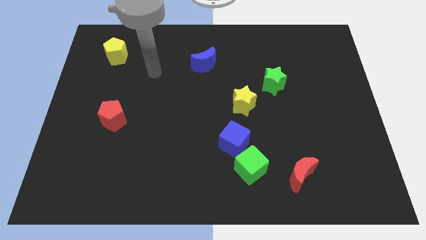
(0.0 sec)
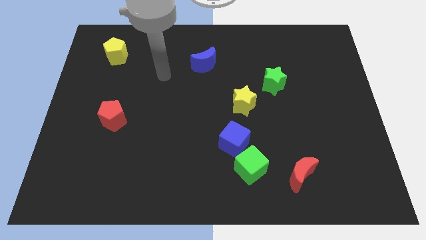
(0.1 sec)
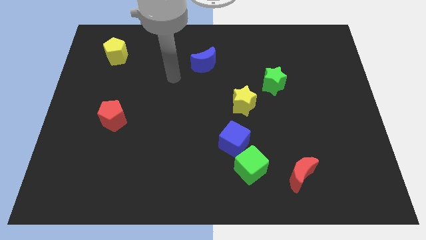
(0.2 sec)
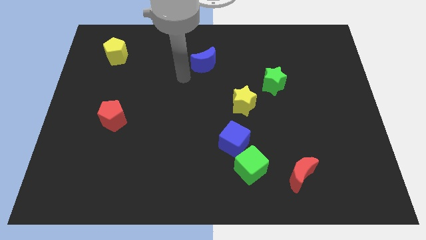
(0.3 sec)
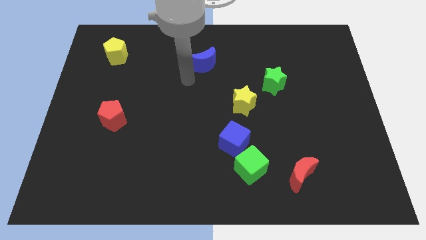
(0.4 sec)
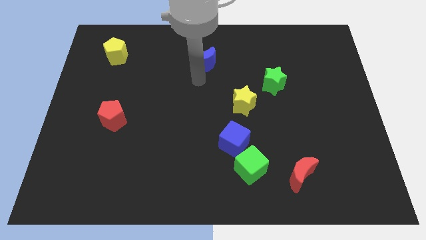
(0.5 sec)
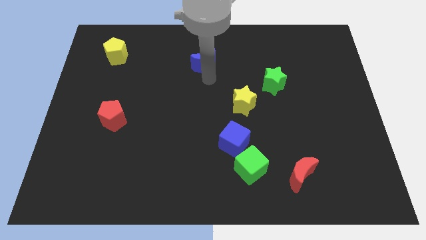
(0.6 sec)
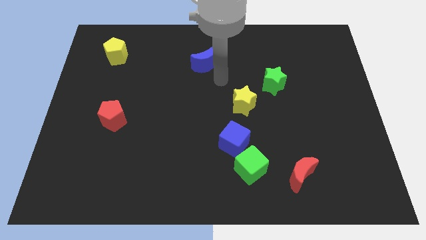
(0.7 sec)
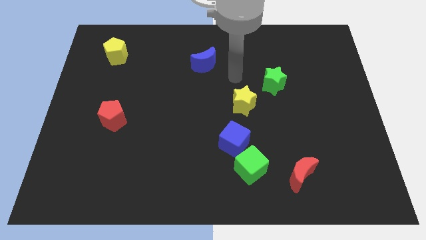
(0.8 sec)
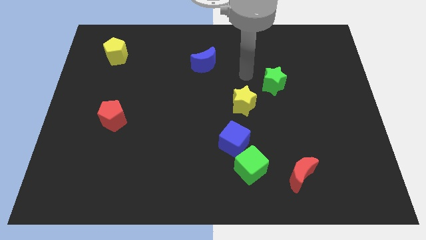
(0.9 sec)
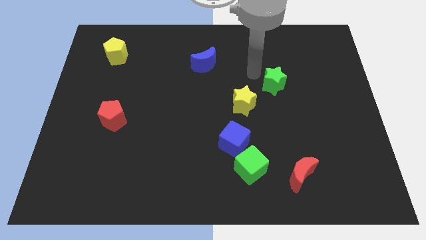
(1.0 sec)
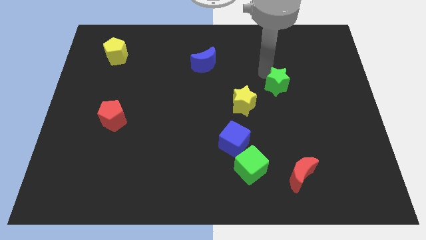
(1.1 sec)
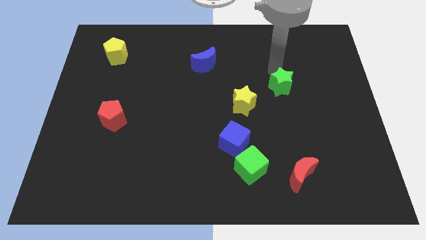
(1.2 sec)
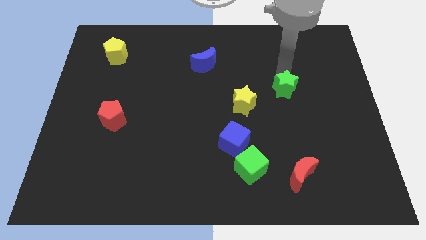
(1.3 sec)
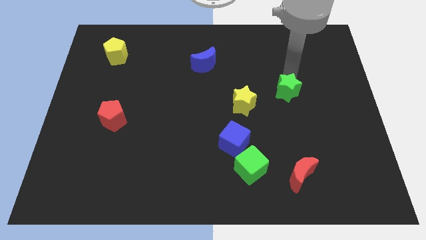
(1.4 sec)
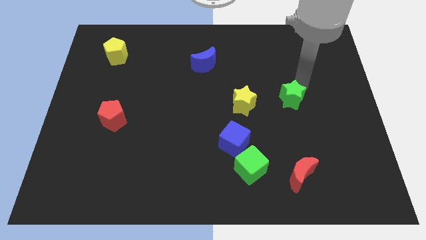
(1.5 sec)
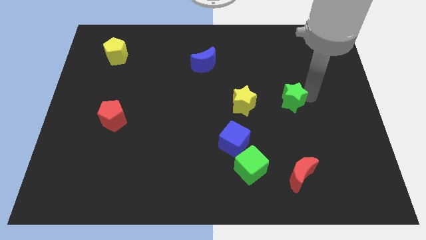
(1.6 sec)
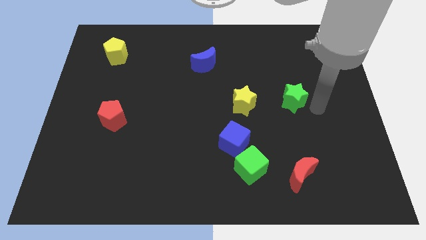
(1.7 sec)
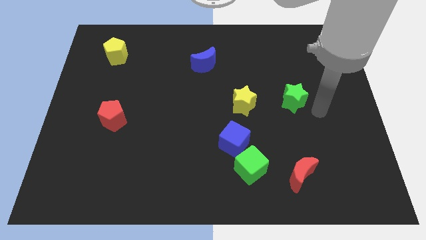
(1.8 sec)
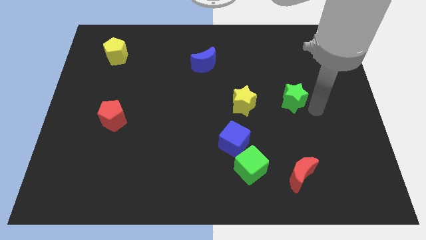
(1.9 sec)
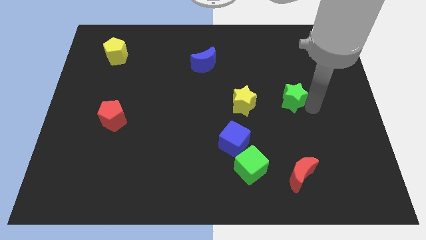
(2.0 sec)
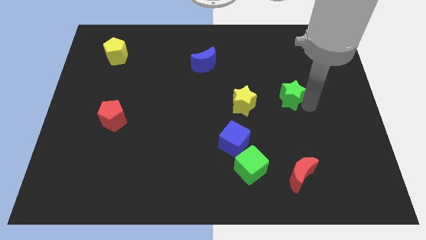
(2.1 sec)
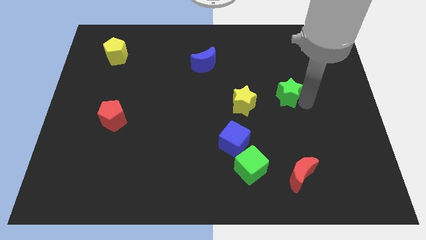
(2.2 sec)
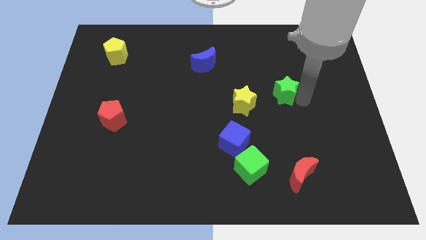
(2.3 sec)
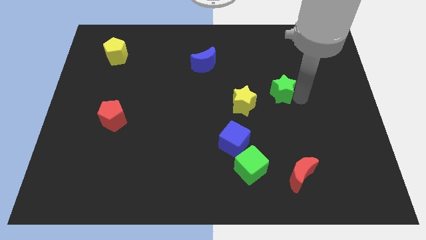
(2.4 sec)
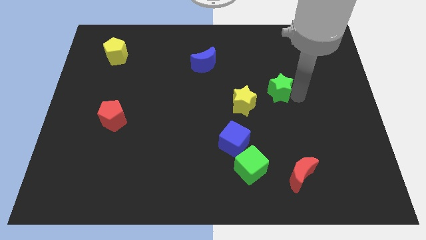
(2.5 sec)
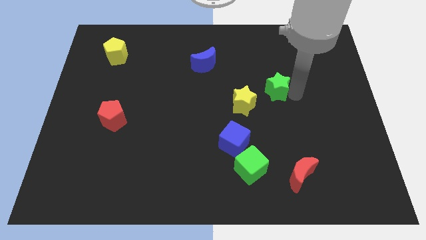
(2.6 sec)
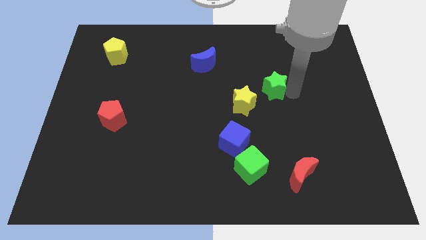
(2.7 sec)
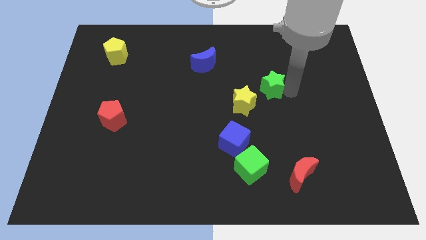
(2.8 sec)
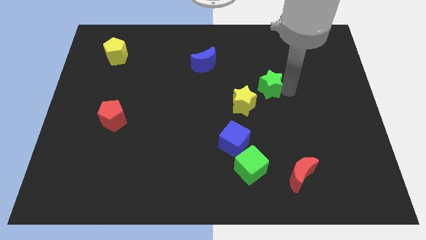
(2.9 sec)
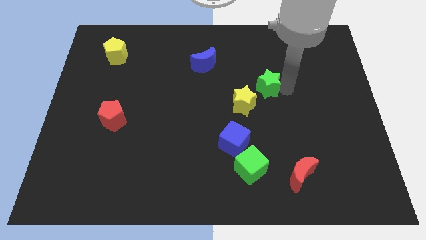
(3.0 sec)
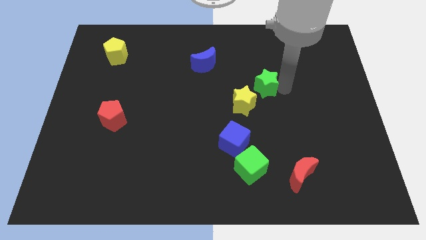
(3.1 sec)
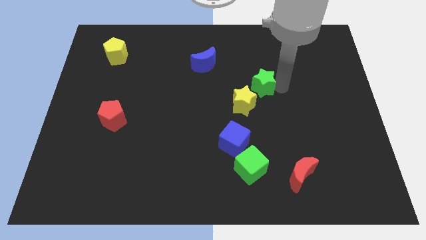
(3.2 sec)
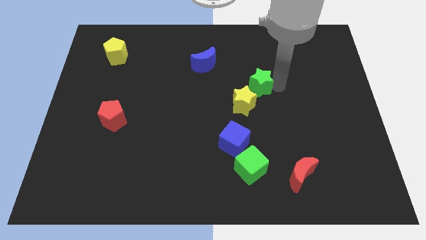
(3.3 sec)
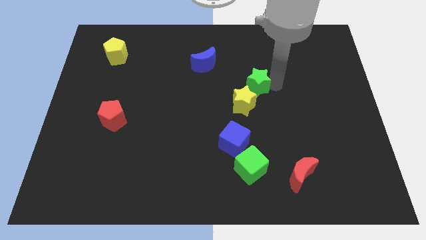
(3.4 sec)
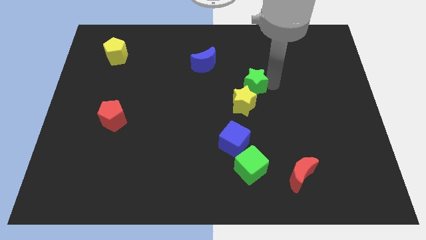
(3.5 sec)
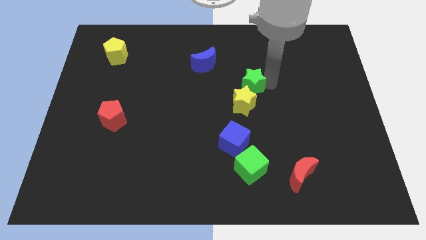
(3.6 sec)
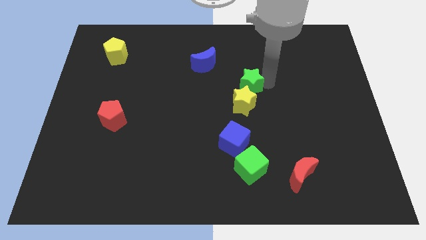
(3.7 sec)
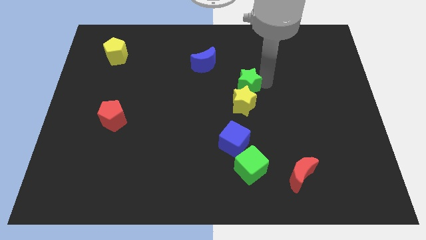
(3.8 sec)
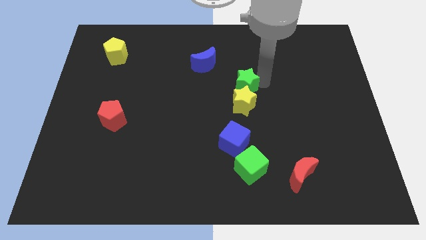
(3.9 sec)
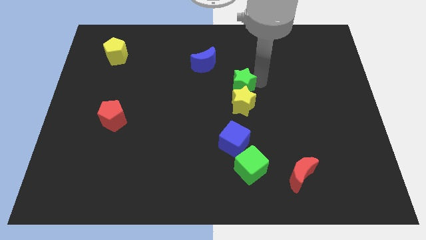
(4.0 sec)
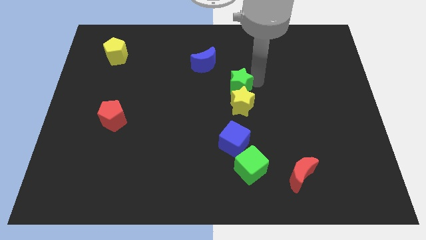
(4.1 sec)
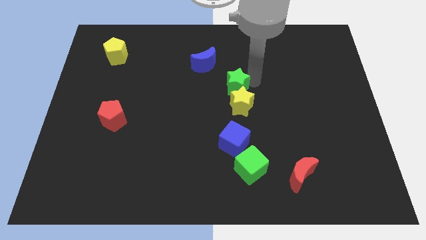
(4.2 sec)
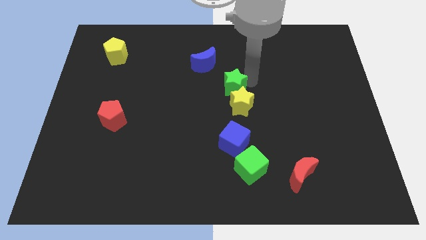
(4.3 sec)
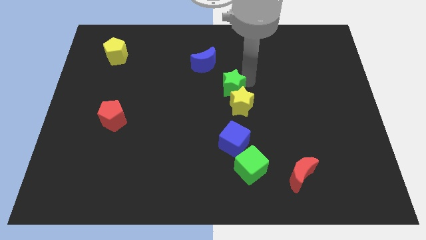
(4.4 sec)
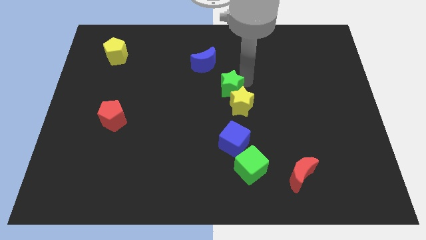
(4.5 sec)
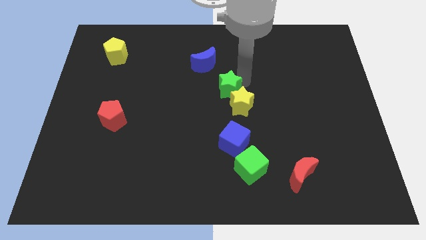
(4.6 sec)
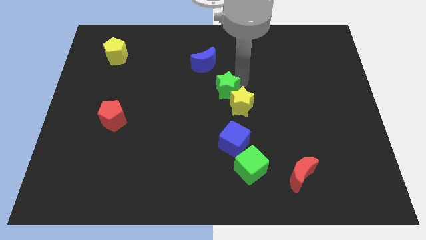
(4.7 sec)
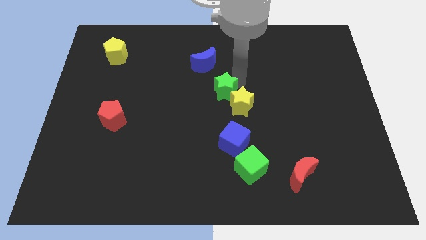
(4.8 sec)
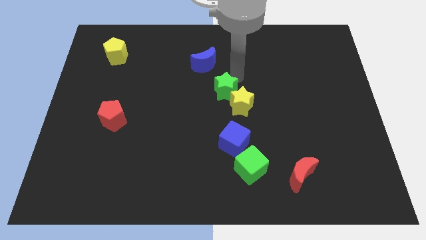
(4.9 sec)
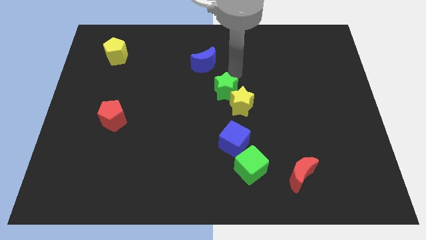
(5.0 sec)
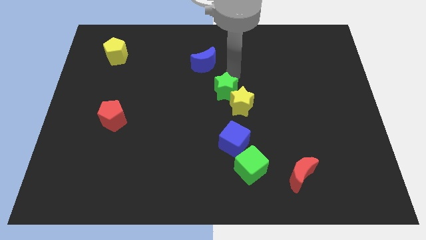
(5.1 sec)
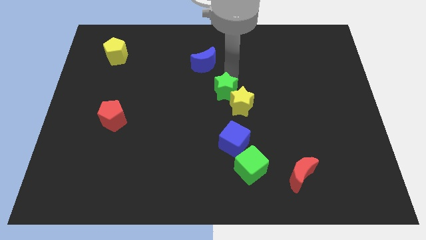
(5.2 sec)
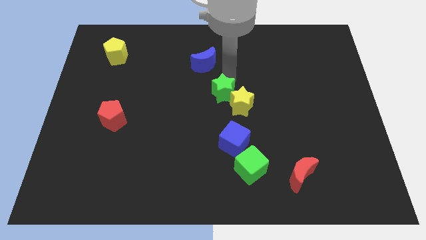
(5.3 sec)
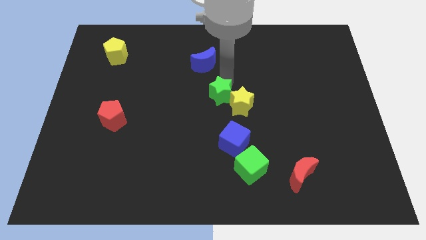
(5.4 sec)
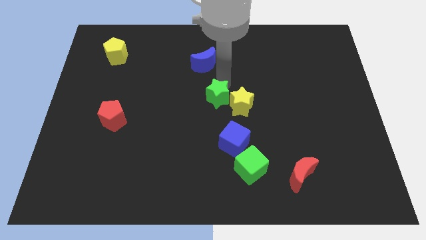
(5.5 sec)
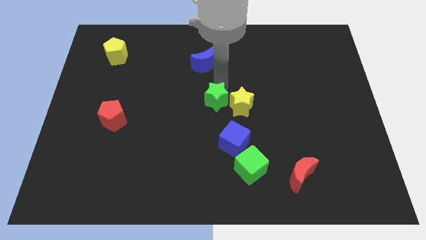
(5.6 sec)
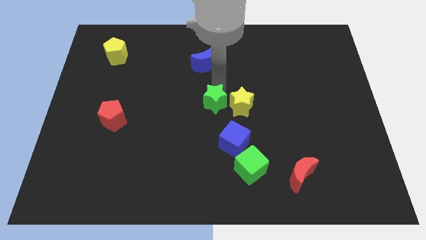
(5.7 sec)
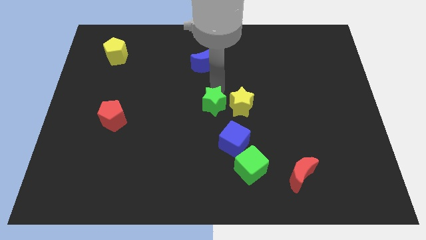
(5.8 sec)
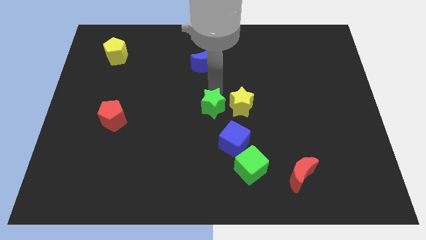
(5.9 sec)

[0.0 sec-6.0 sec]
slide the green star diagonally up and to the left of the blue cube
